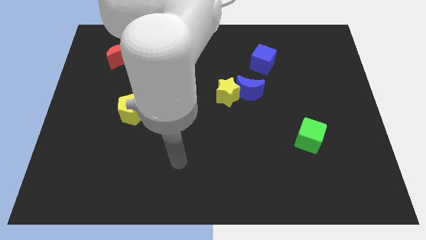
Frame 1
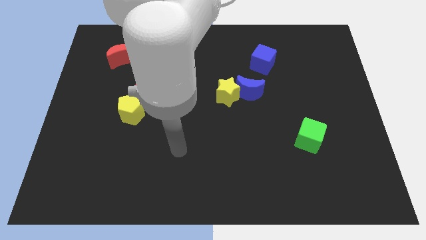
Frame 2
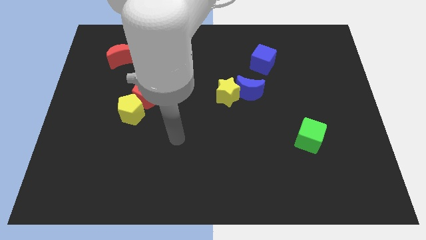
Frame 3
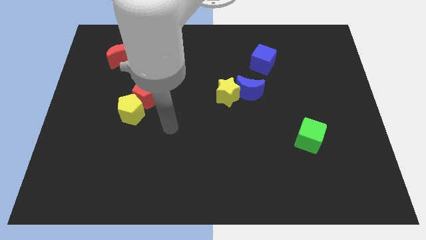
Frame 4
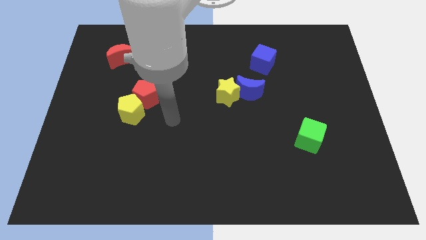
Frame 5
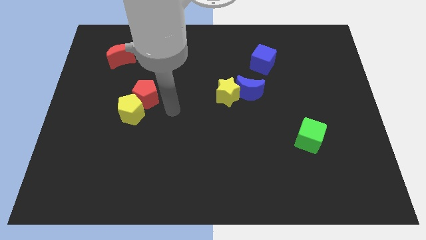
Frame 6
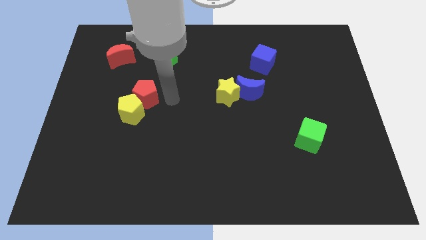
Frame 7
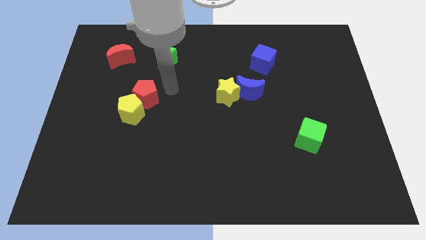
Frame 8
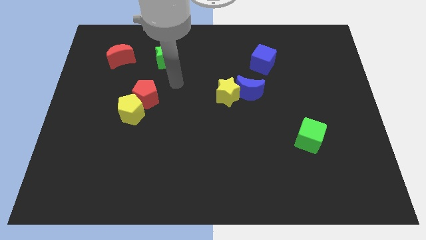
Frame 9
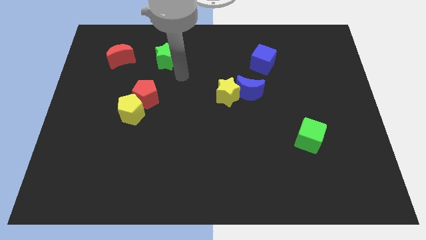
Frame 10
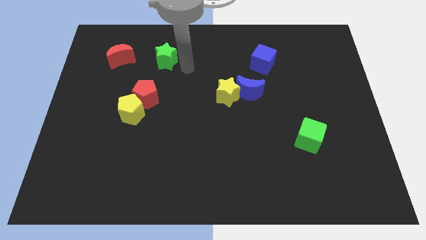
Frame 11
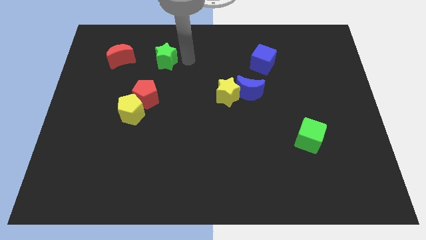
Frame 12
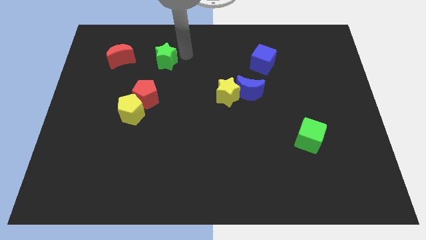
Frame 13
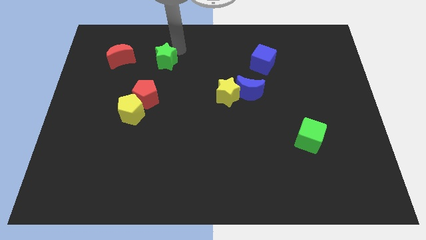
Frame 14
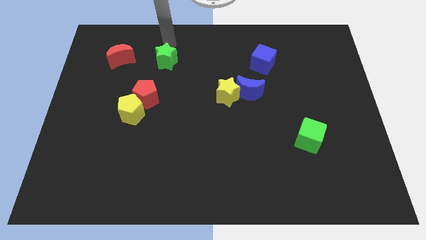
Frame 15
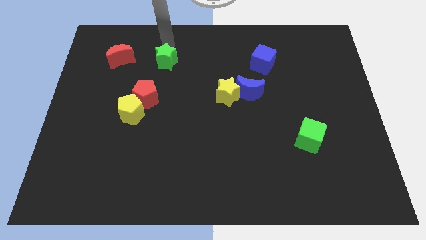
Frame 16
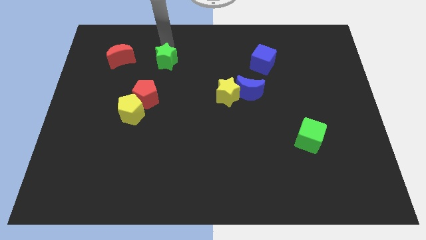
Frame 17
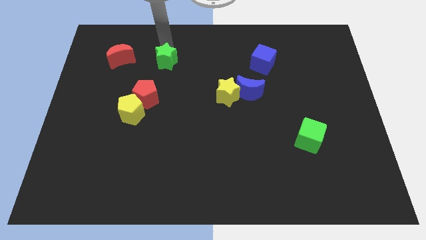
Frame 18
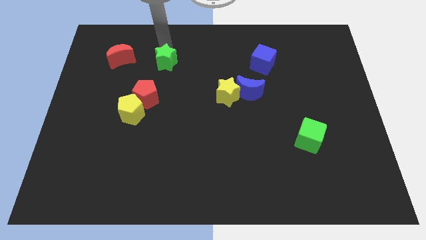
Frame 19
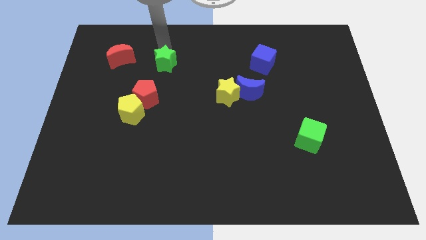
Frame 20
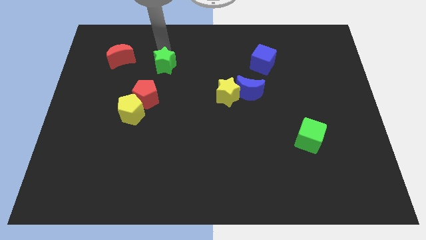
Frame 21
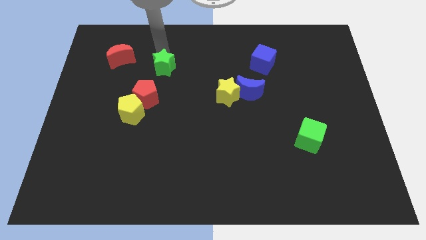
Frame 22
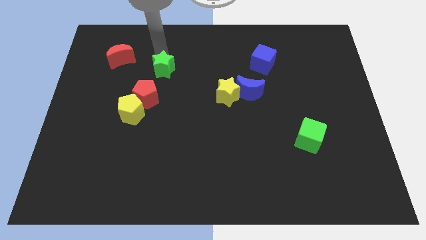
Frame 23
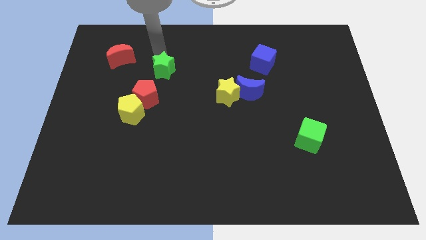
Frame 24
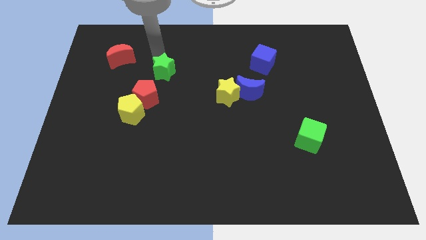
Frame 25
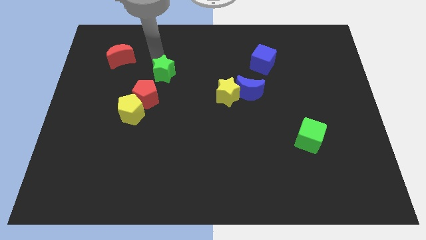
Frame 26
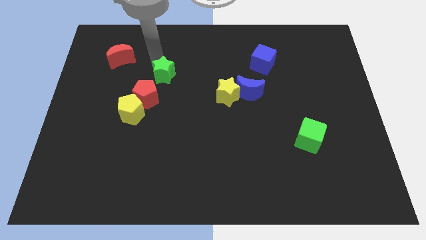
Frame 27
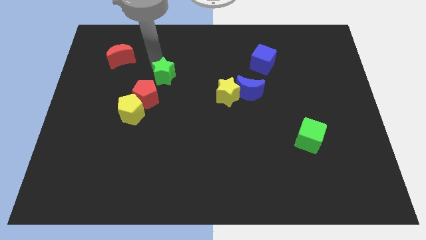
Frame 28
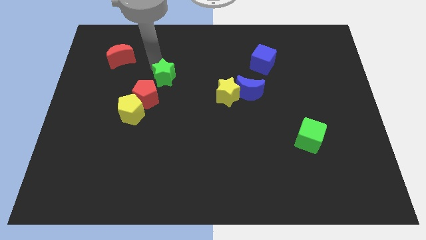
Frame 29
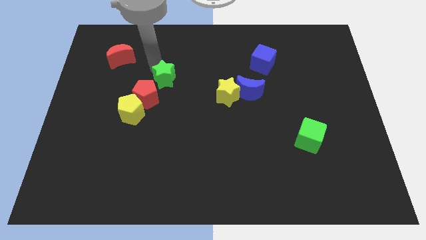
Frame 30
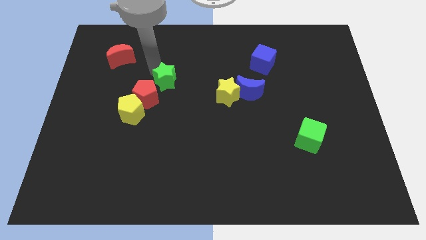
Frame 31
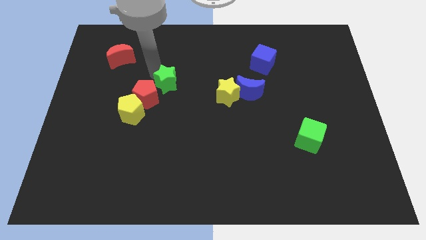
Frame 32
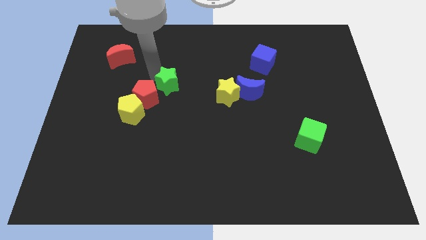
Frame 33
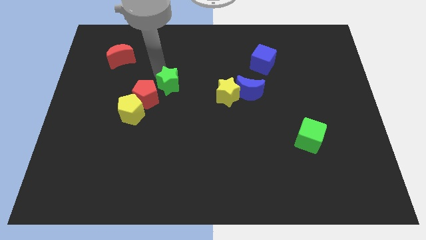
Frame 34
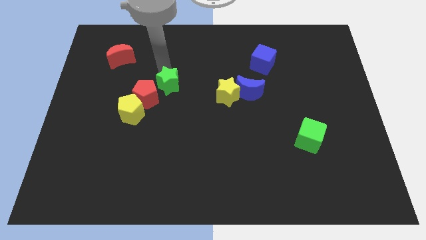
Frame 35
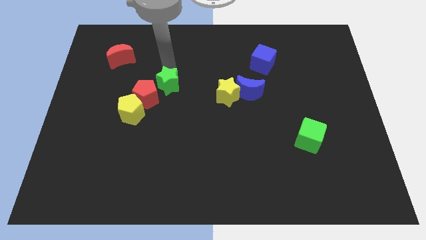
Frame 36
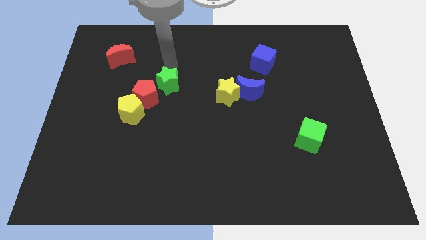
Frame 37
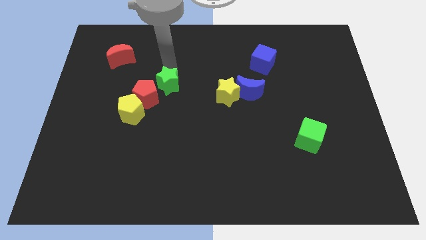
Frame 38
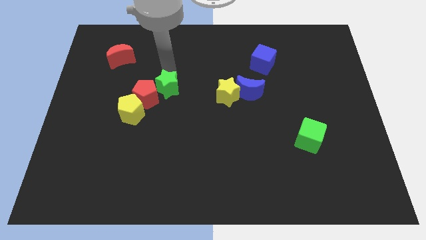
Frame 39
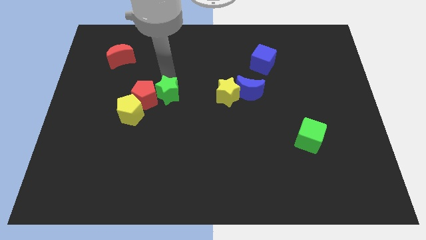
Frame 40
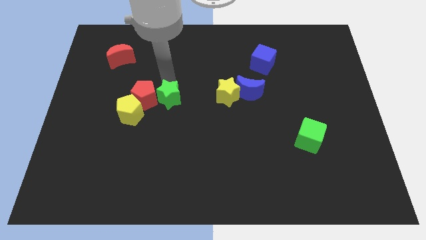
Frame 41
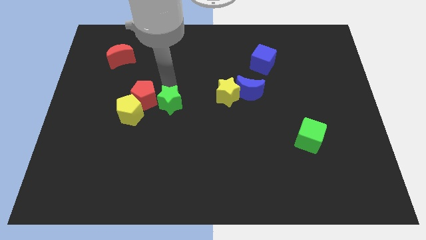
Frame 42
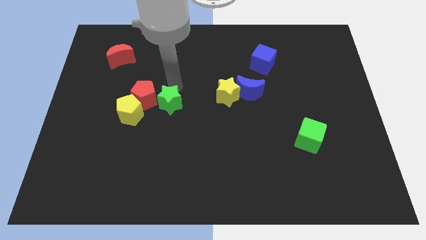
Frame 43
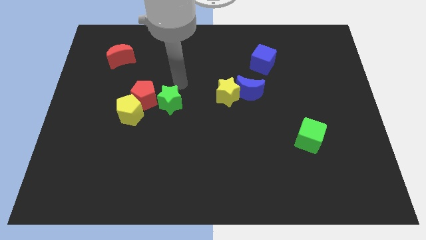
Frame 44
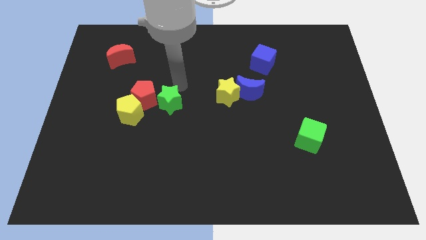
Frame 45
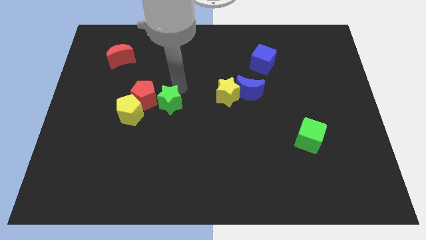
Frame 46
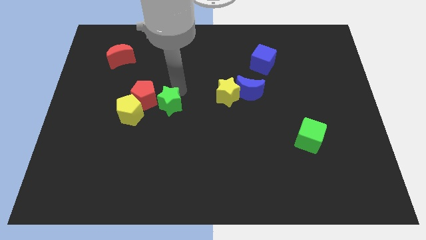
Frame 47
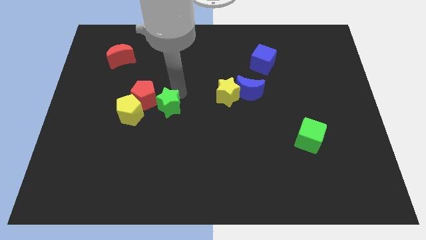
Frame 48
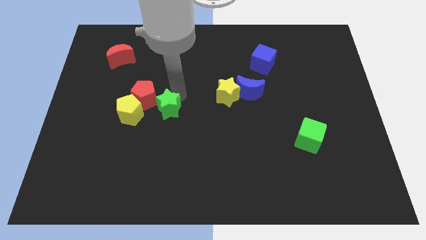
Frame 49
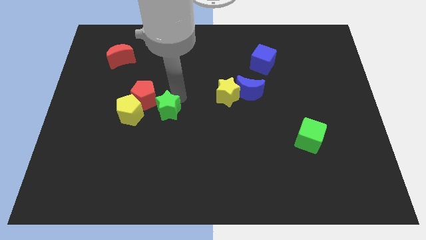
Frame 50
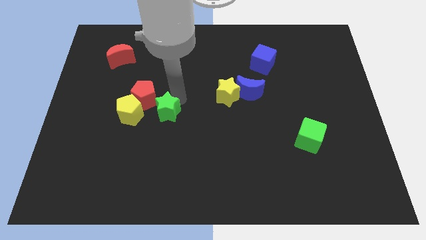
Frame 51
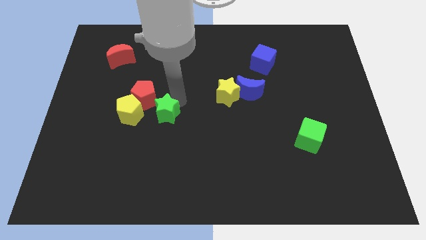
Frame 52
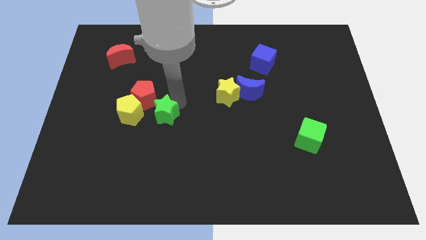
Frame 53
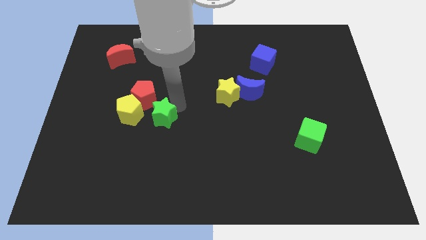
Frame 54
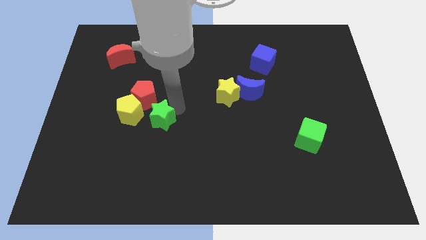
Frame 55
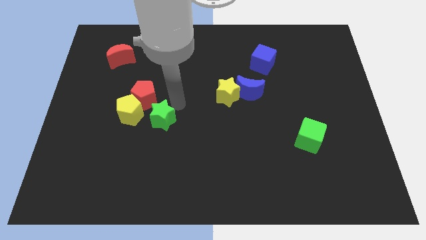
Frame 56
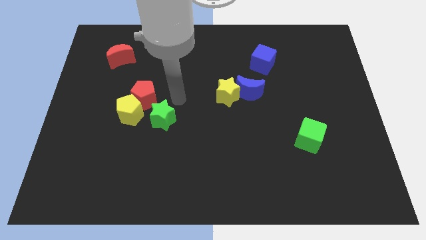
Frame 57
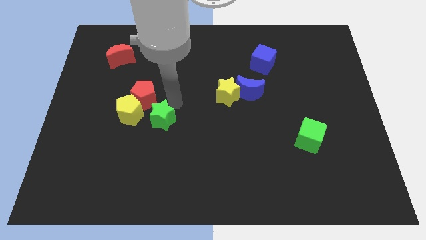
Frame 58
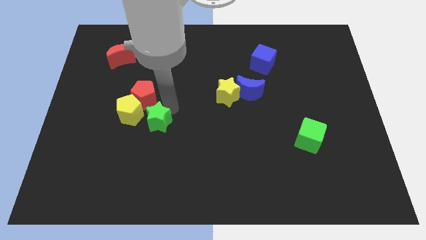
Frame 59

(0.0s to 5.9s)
push the green star downwards

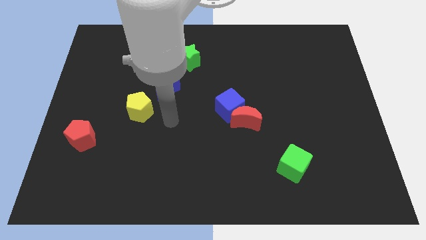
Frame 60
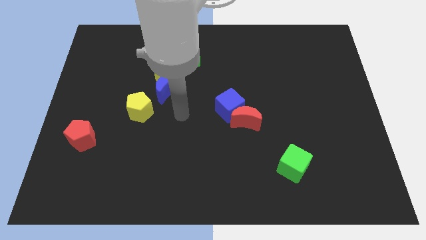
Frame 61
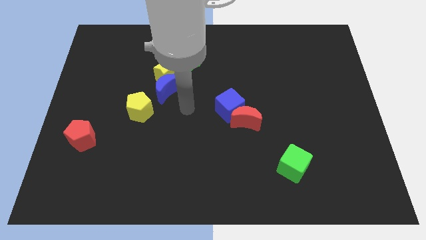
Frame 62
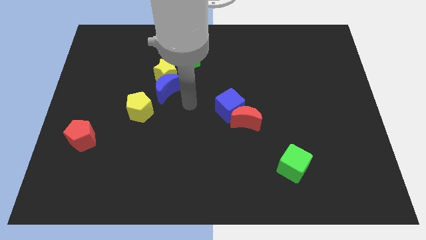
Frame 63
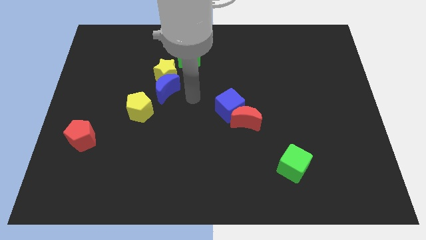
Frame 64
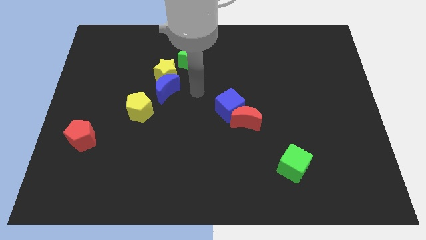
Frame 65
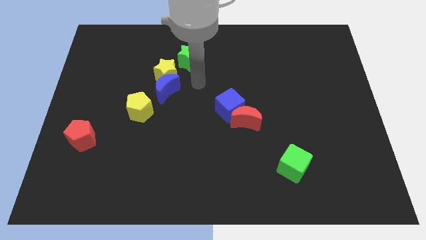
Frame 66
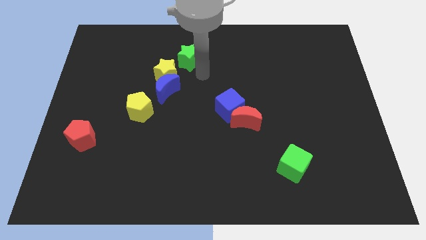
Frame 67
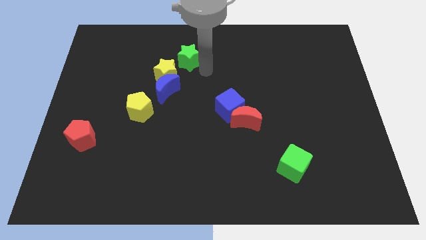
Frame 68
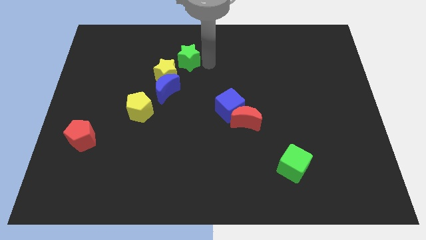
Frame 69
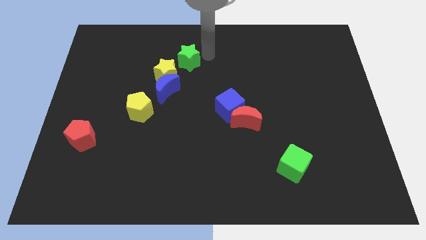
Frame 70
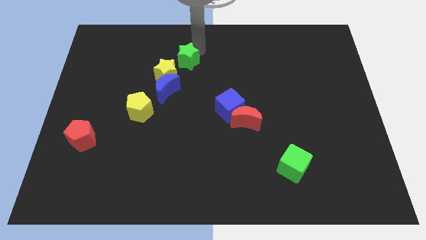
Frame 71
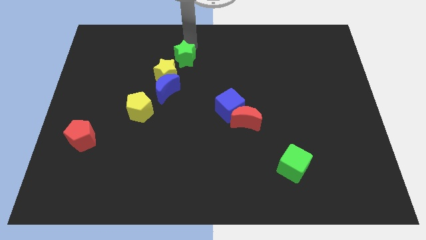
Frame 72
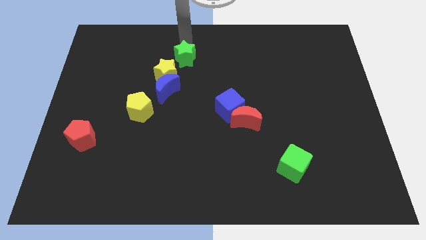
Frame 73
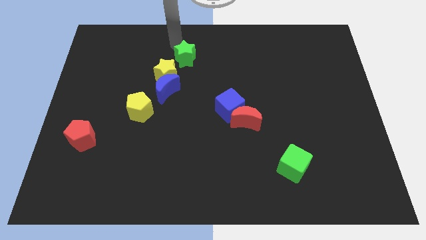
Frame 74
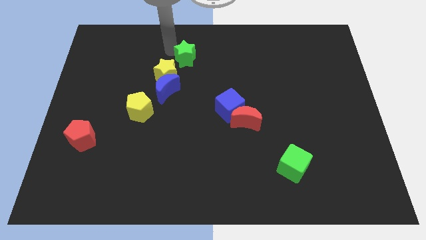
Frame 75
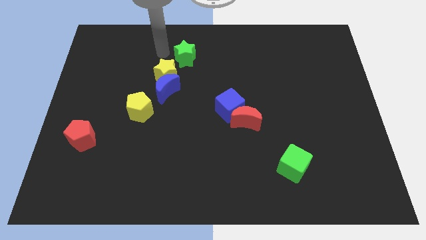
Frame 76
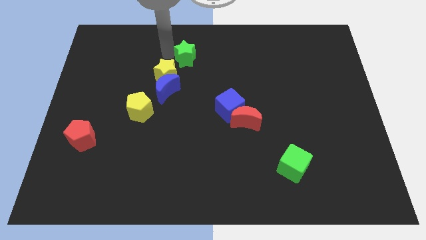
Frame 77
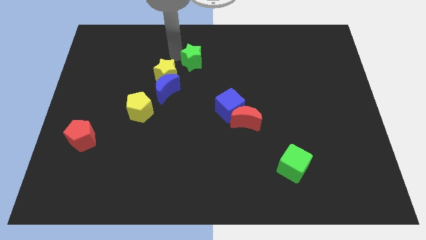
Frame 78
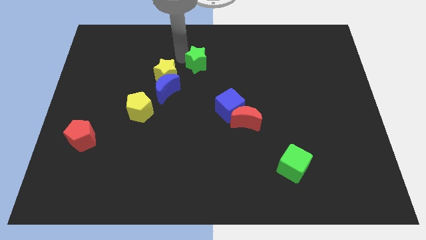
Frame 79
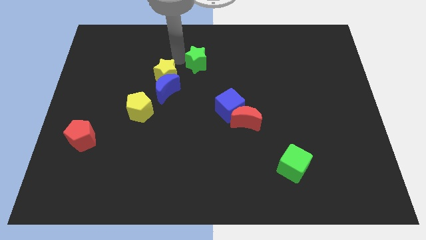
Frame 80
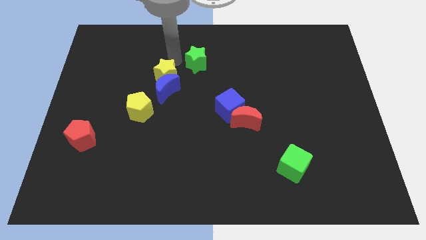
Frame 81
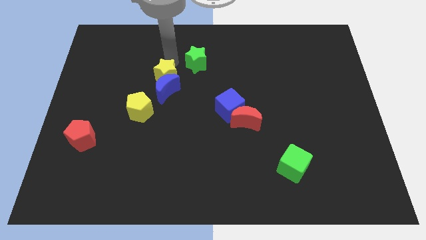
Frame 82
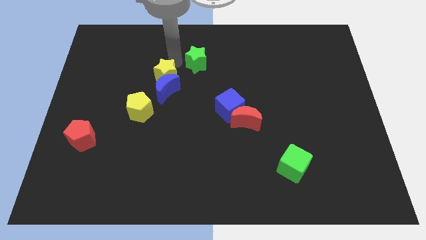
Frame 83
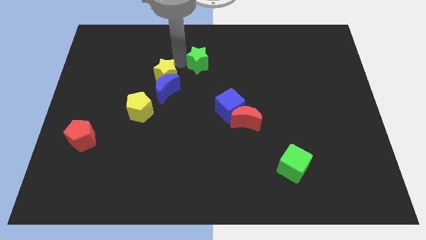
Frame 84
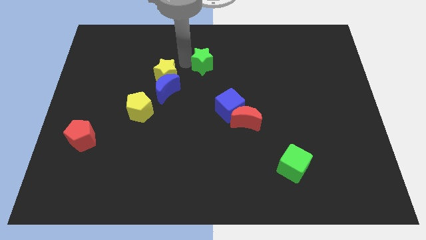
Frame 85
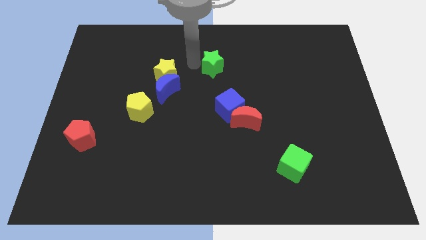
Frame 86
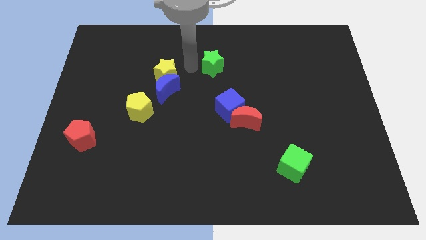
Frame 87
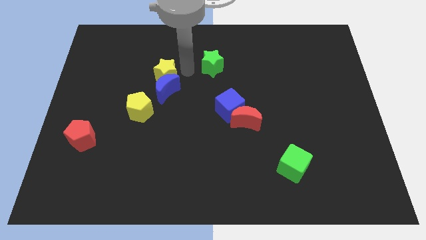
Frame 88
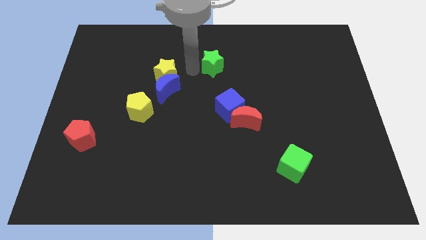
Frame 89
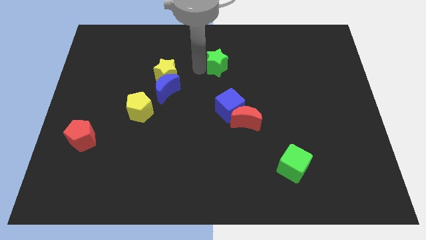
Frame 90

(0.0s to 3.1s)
push the green star to the right somewhat
